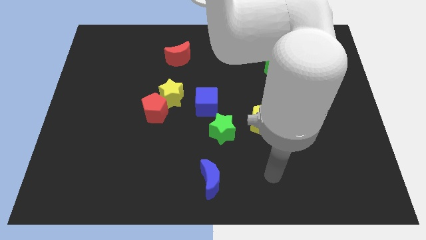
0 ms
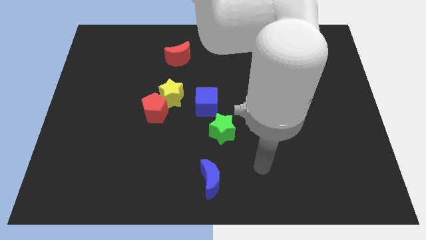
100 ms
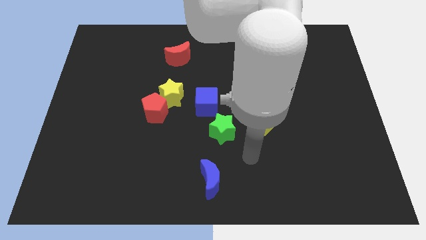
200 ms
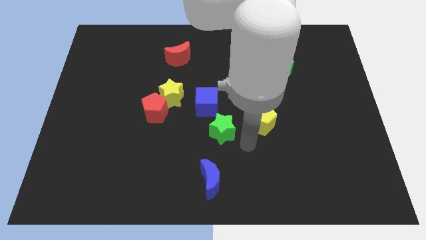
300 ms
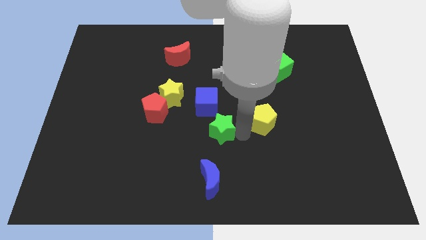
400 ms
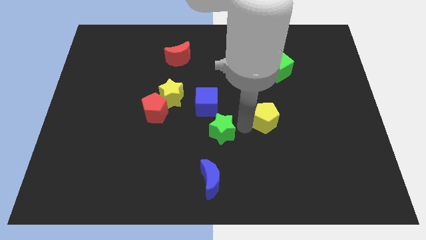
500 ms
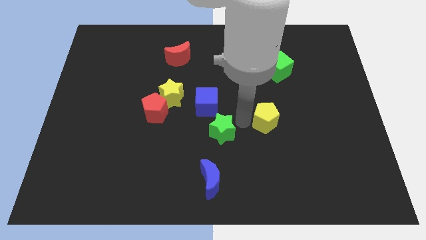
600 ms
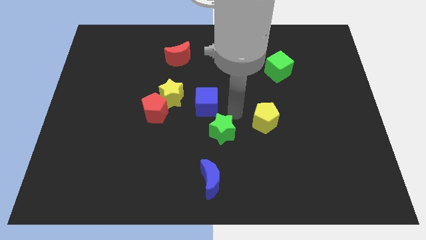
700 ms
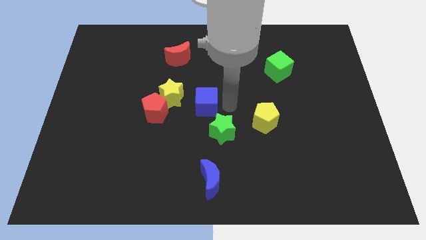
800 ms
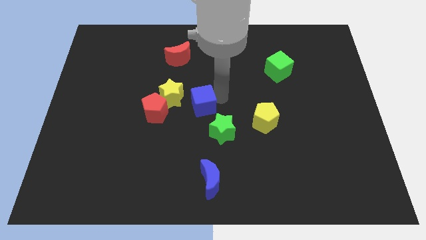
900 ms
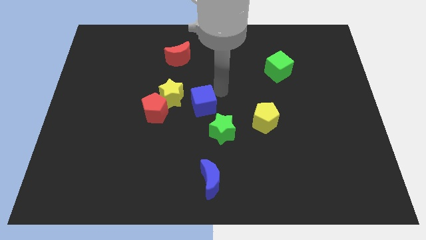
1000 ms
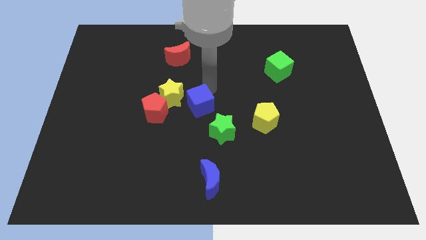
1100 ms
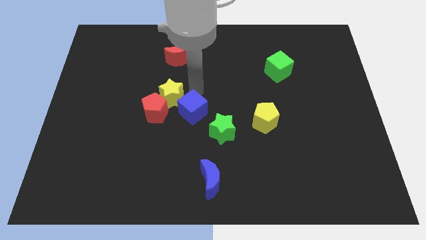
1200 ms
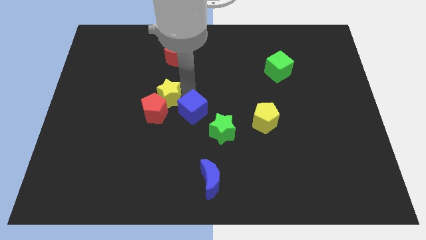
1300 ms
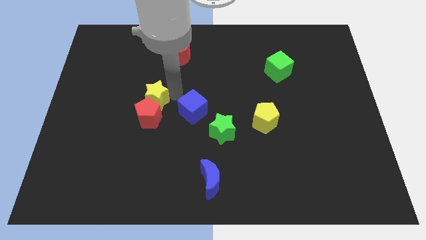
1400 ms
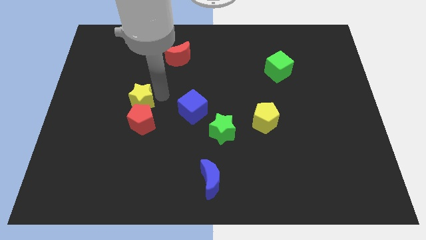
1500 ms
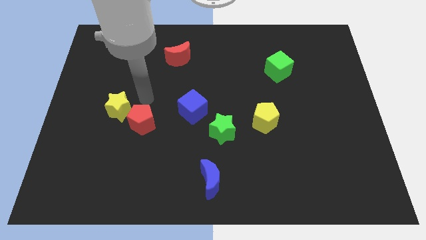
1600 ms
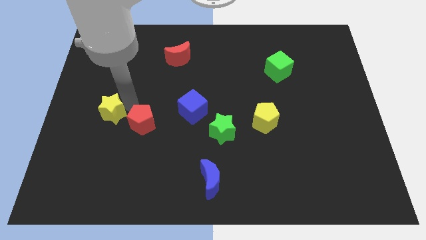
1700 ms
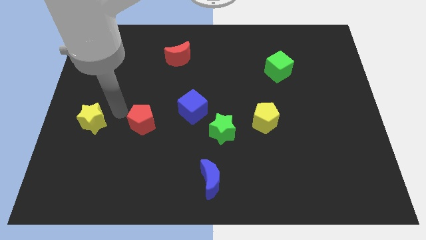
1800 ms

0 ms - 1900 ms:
move the red pentagon away from the yellow star

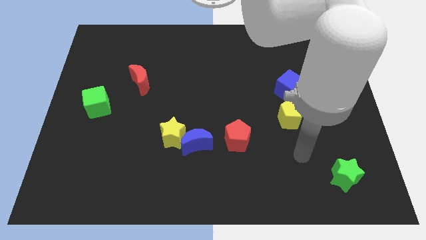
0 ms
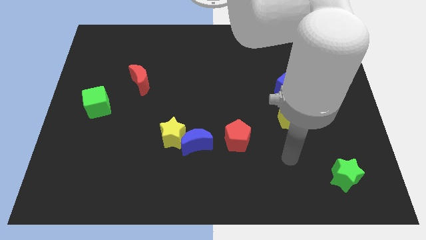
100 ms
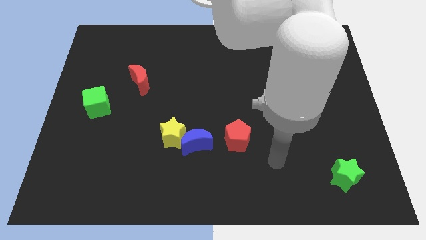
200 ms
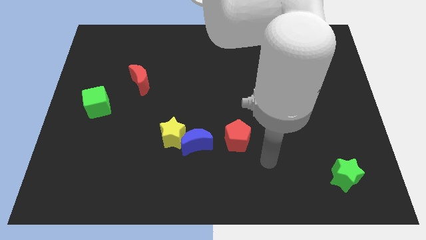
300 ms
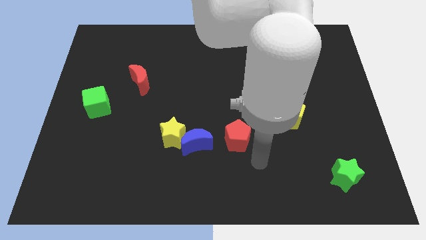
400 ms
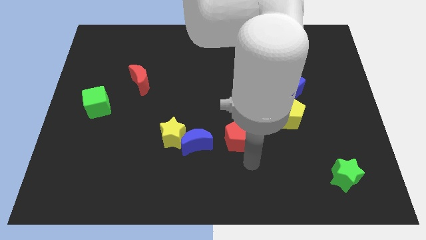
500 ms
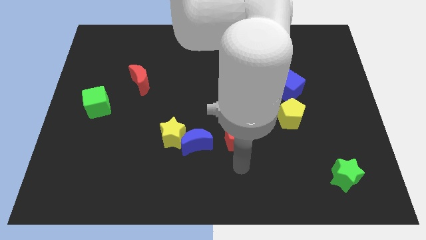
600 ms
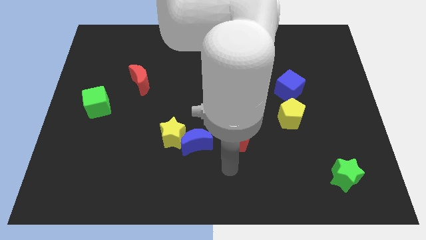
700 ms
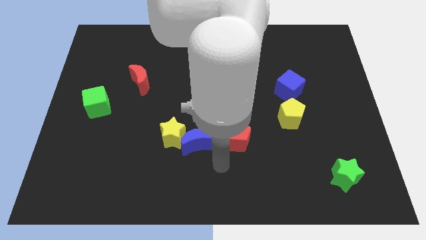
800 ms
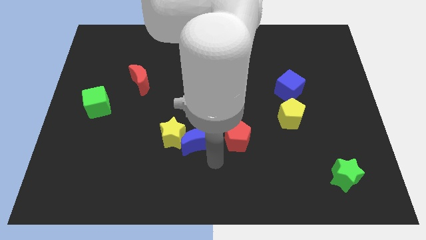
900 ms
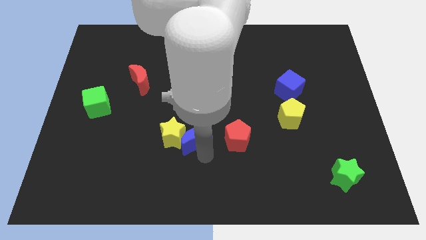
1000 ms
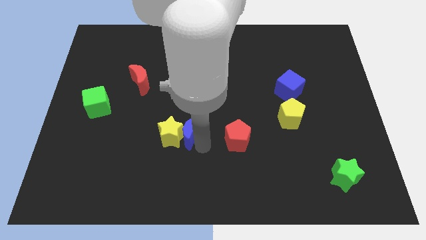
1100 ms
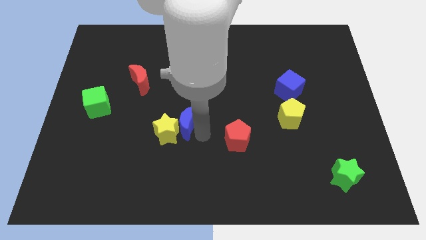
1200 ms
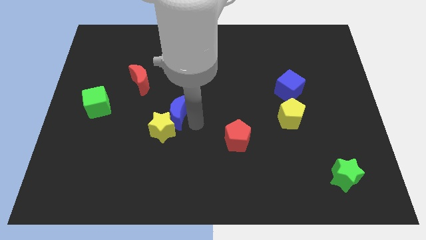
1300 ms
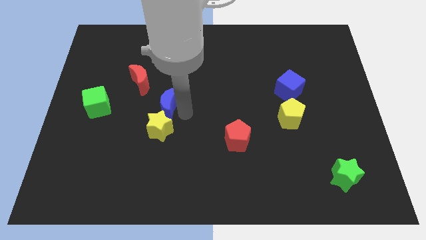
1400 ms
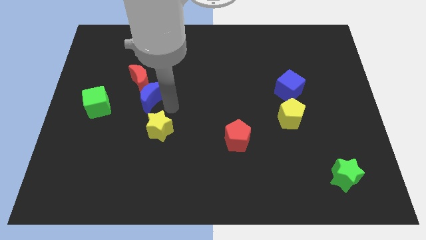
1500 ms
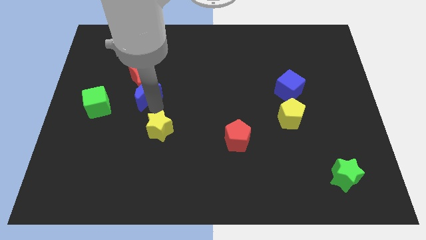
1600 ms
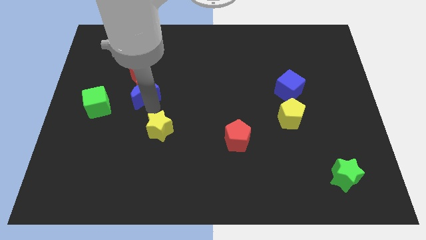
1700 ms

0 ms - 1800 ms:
pull the yellow star apart from the blue moon

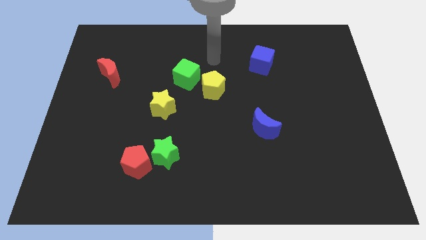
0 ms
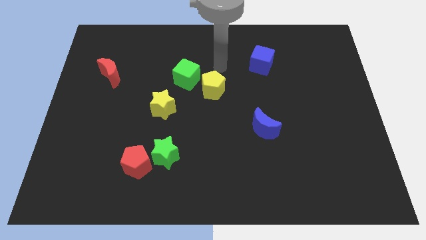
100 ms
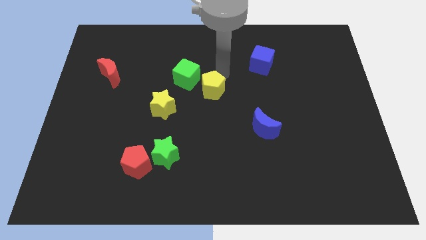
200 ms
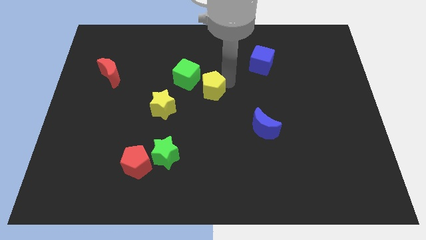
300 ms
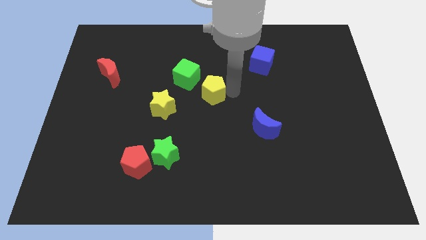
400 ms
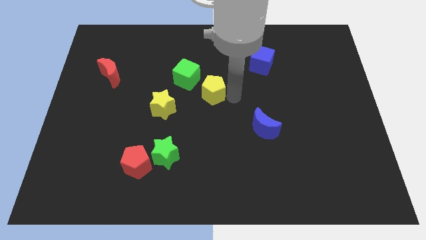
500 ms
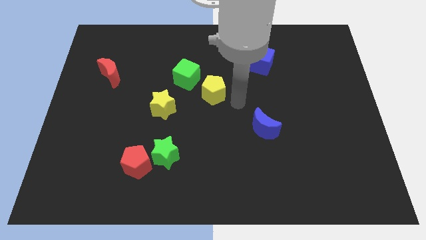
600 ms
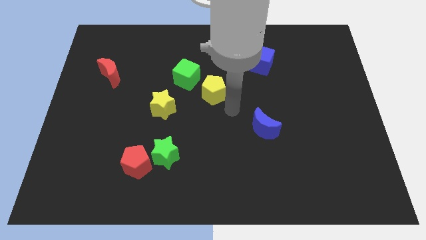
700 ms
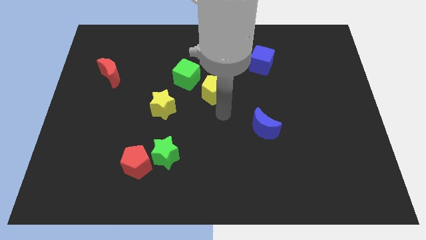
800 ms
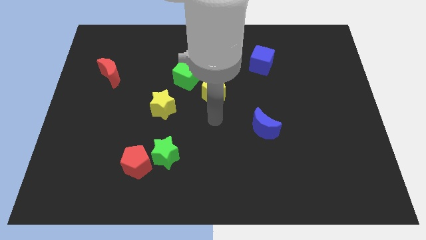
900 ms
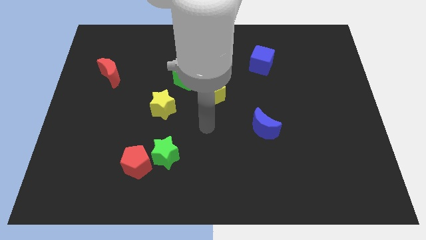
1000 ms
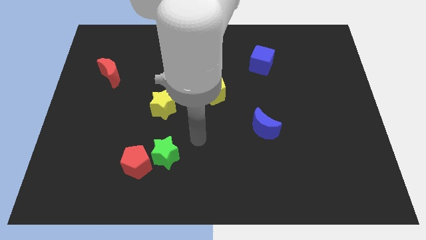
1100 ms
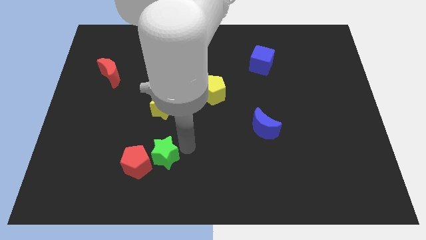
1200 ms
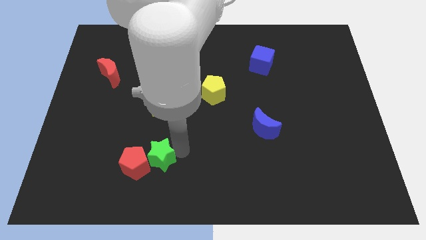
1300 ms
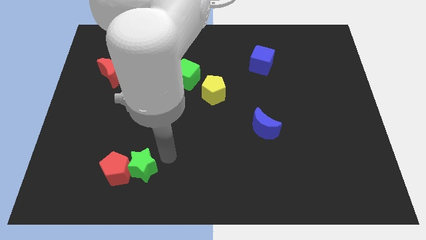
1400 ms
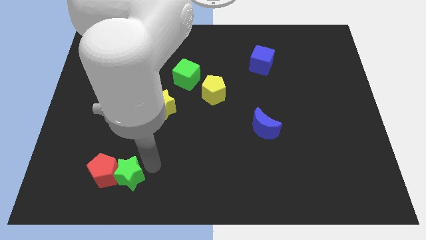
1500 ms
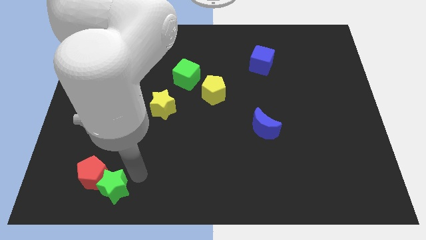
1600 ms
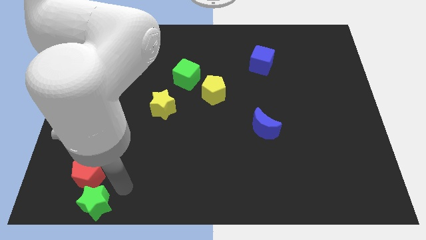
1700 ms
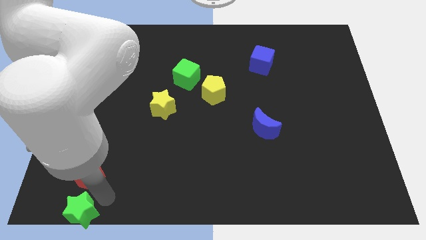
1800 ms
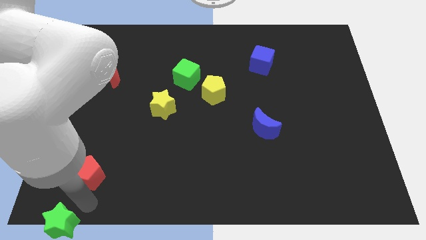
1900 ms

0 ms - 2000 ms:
move the red pentagon away from the green star

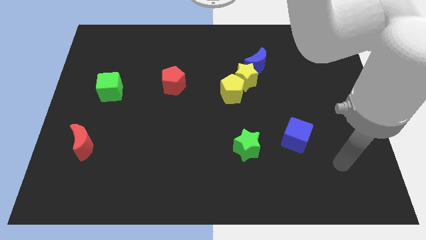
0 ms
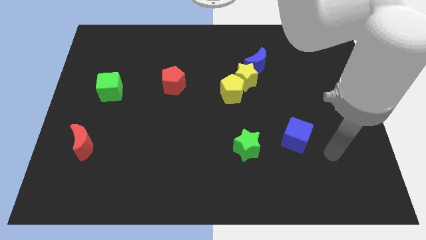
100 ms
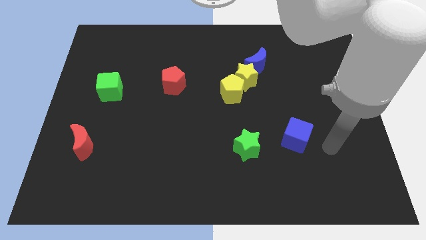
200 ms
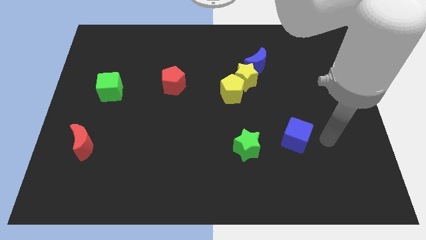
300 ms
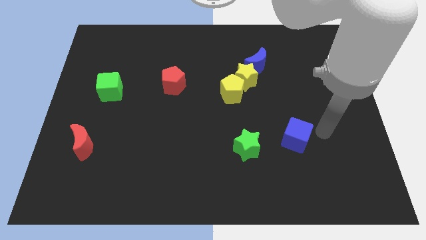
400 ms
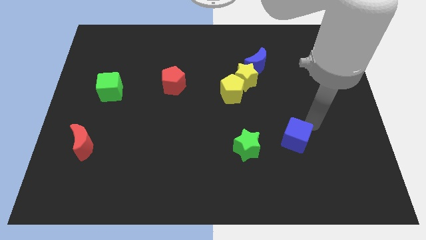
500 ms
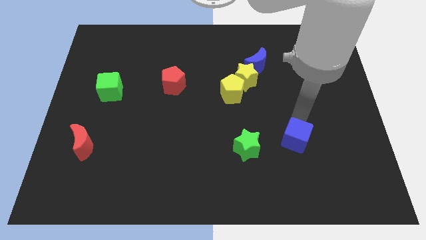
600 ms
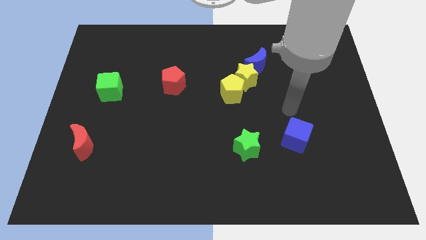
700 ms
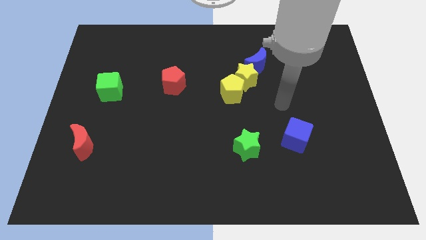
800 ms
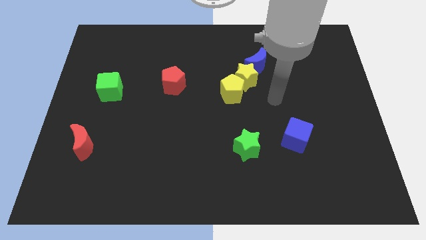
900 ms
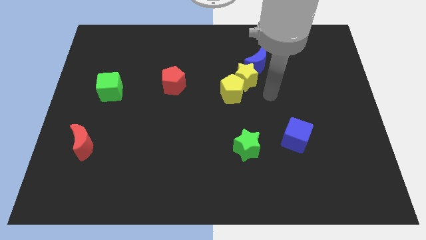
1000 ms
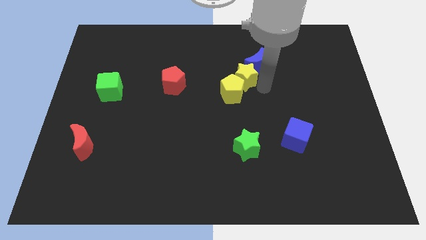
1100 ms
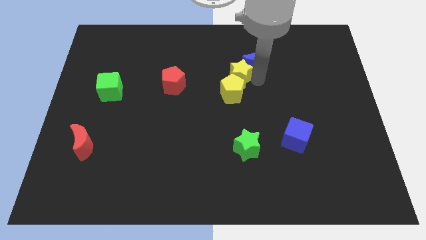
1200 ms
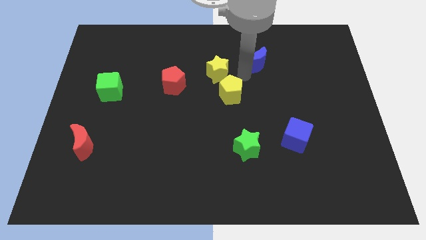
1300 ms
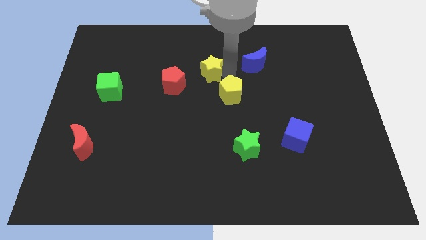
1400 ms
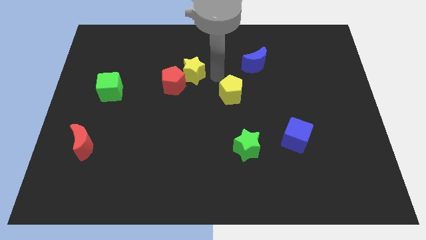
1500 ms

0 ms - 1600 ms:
separate the yellow pentagon from the yellow star

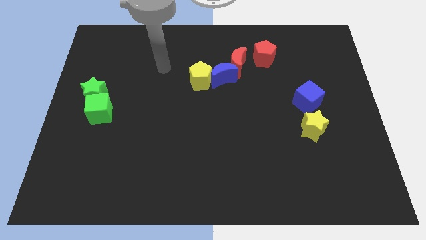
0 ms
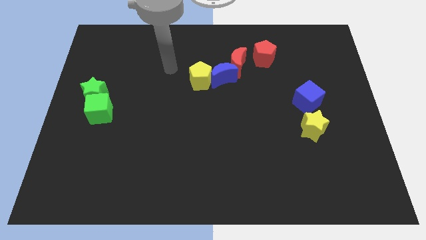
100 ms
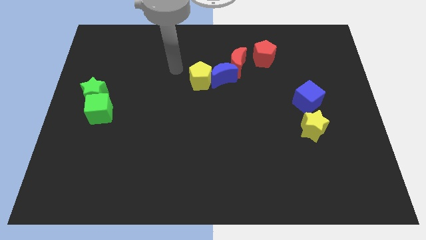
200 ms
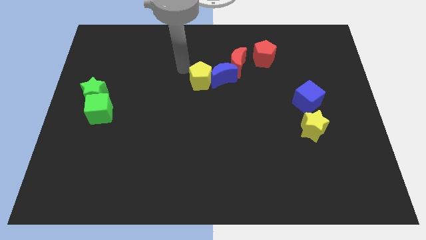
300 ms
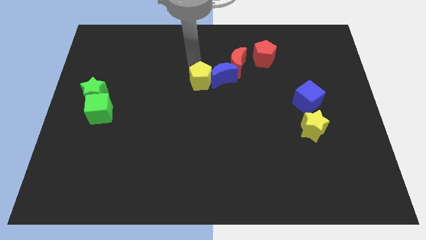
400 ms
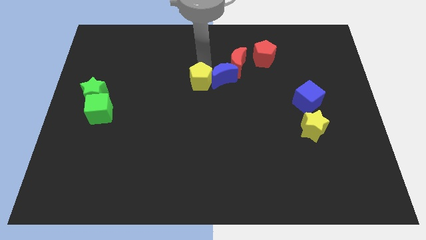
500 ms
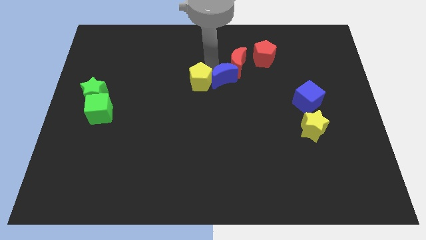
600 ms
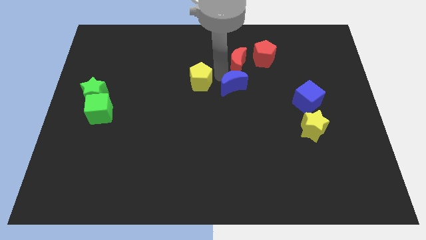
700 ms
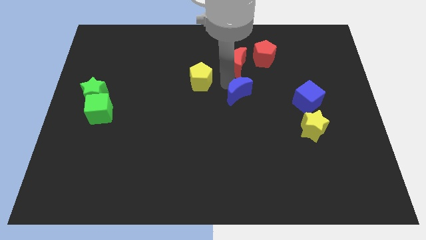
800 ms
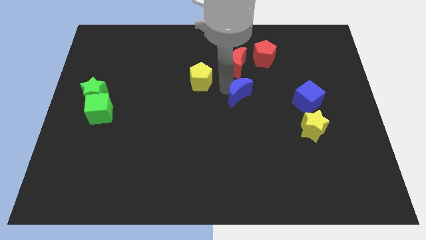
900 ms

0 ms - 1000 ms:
pull the yellow pentagon apart from the blue moon

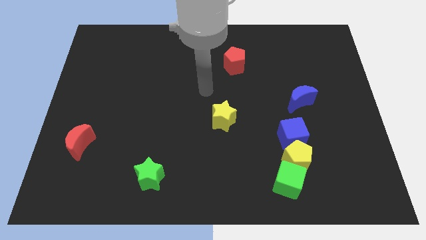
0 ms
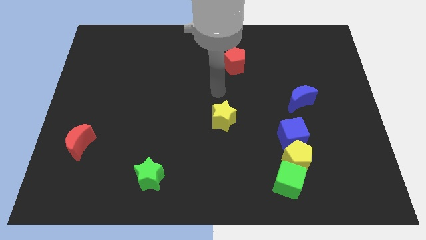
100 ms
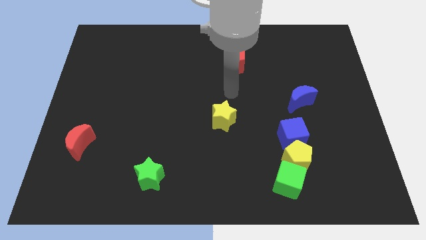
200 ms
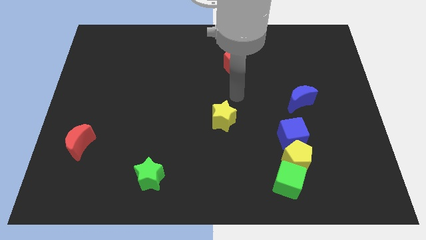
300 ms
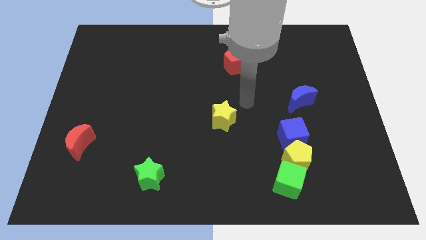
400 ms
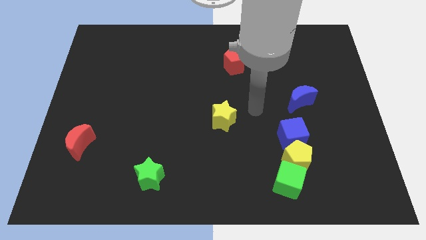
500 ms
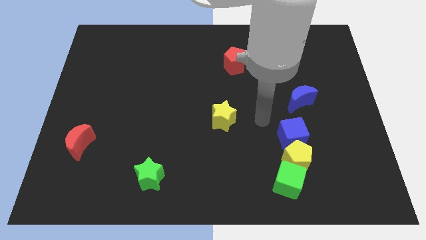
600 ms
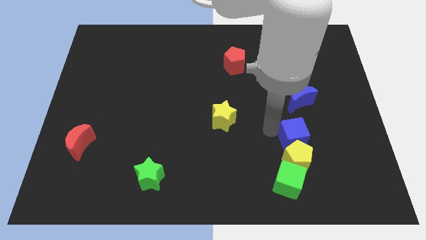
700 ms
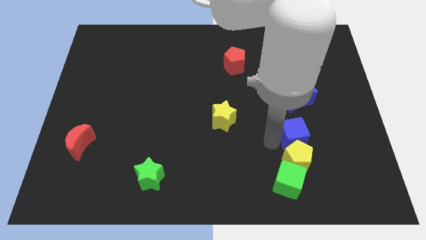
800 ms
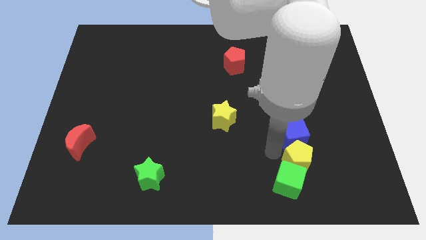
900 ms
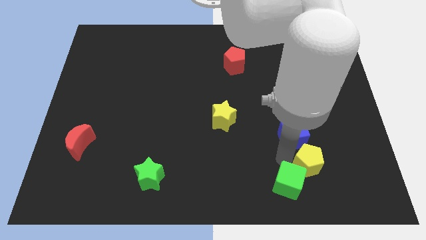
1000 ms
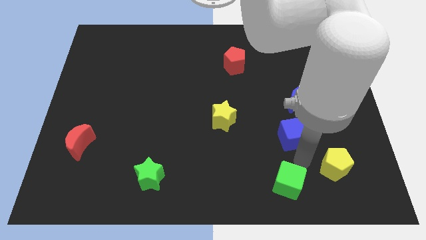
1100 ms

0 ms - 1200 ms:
separate the blue cube from the yellow pentagon
